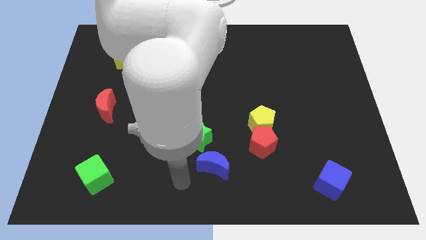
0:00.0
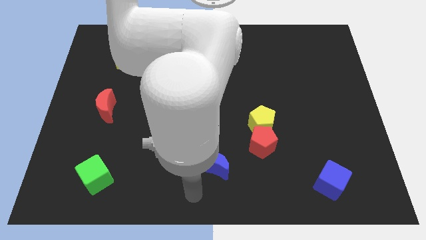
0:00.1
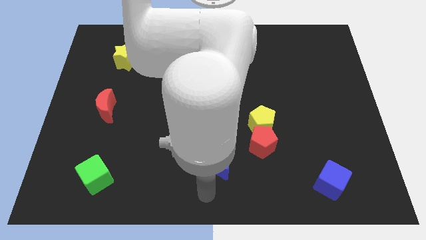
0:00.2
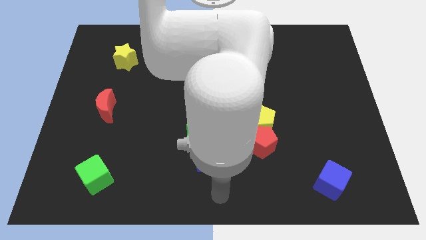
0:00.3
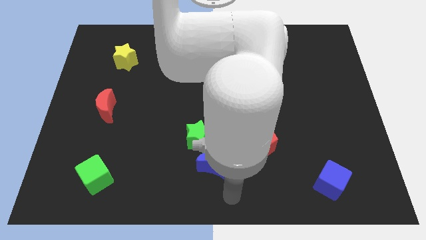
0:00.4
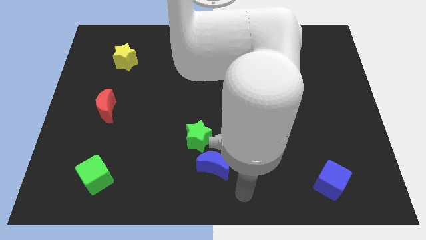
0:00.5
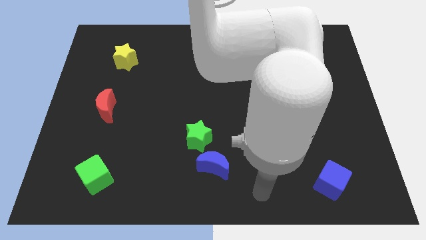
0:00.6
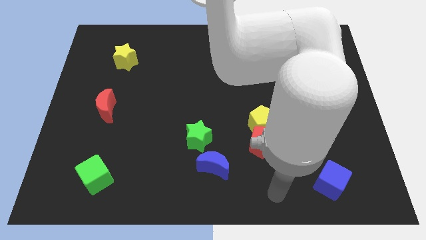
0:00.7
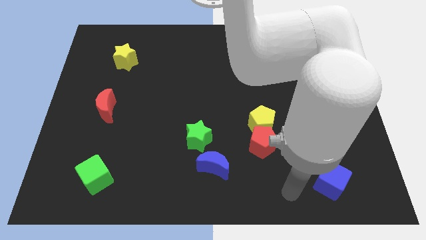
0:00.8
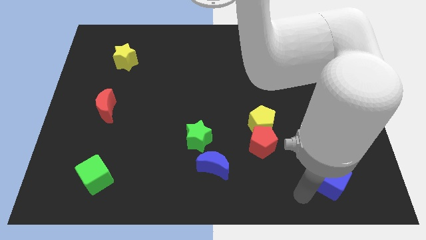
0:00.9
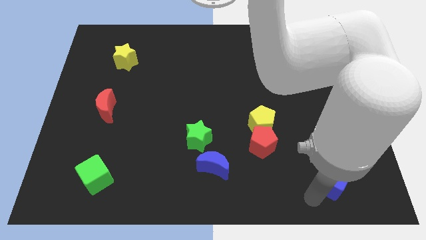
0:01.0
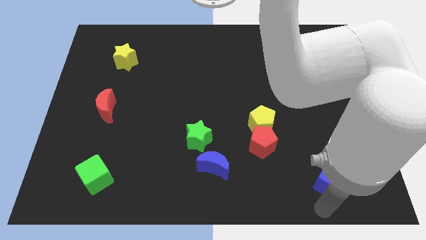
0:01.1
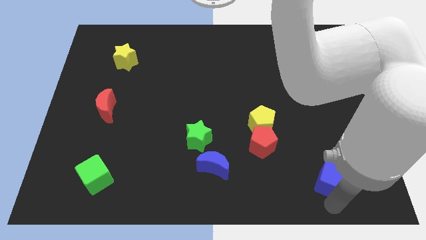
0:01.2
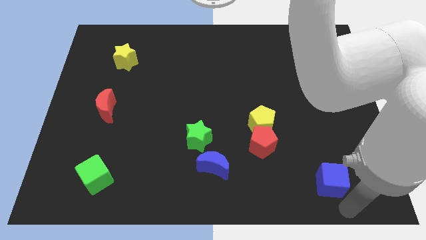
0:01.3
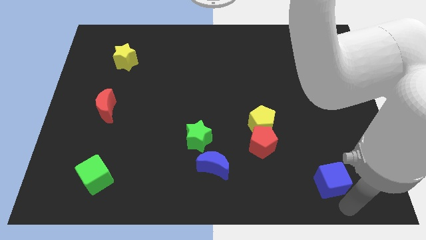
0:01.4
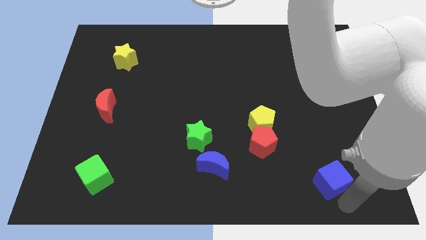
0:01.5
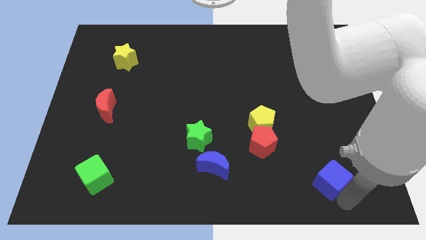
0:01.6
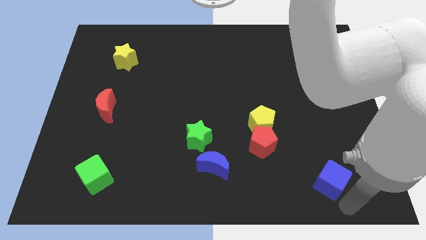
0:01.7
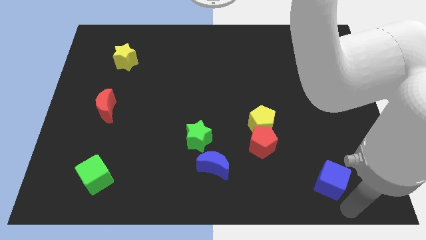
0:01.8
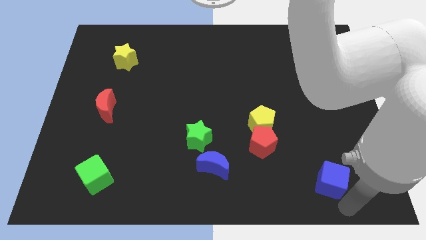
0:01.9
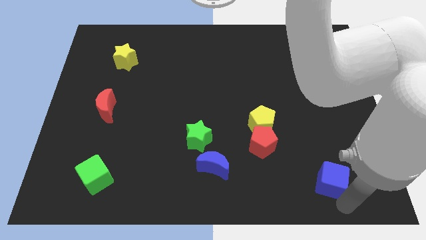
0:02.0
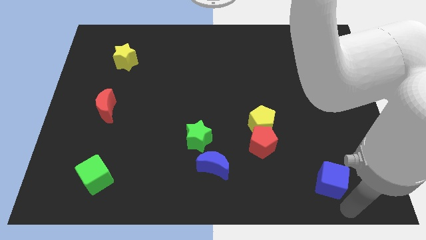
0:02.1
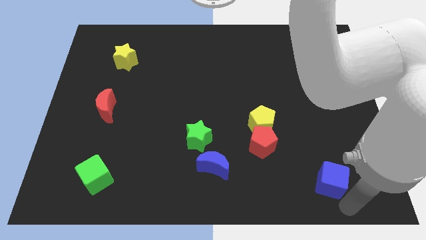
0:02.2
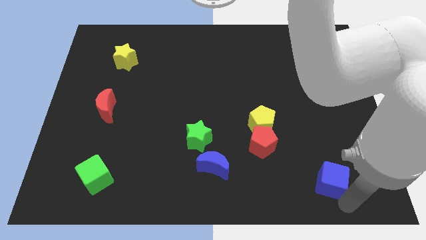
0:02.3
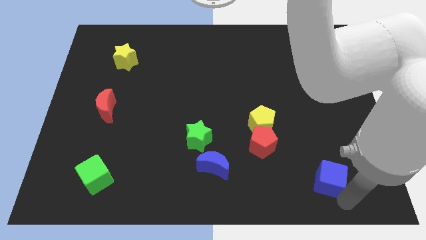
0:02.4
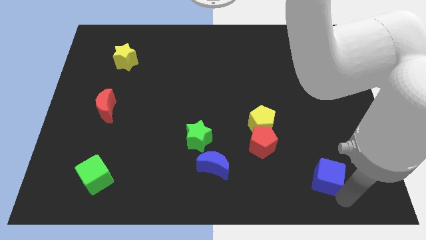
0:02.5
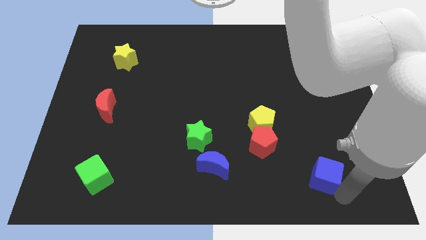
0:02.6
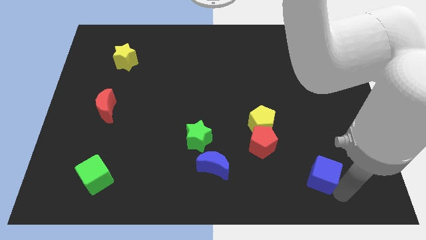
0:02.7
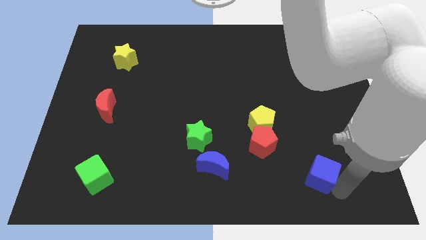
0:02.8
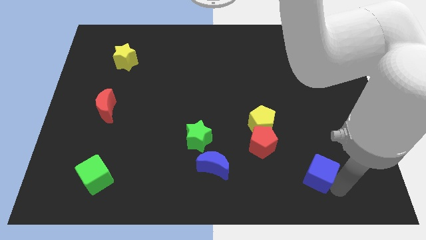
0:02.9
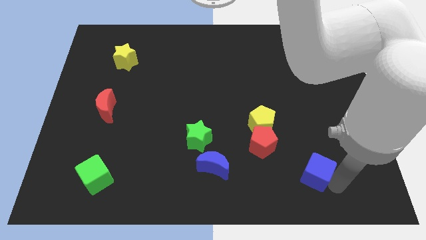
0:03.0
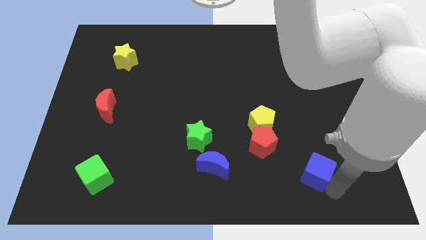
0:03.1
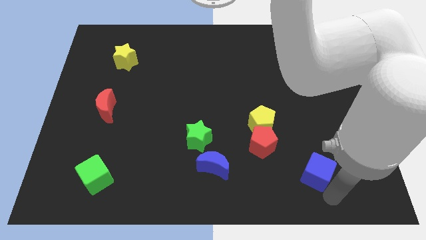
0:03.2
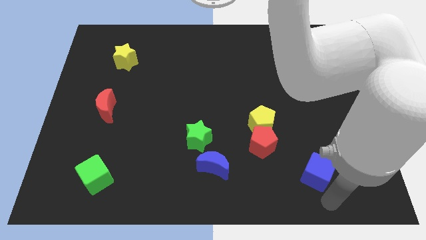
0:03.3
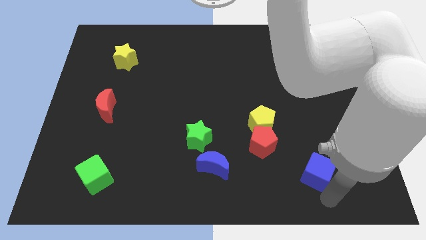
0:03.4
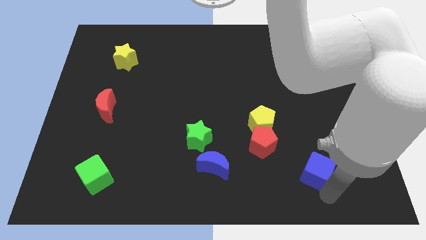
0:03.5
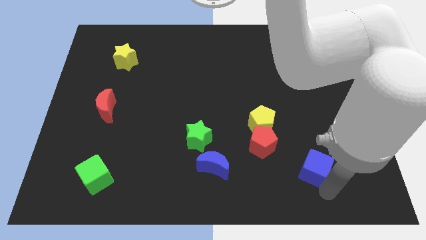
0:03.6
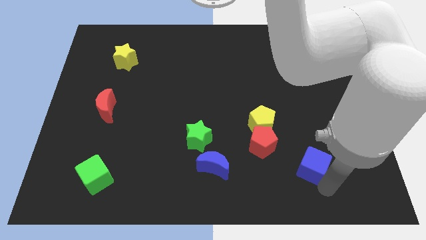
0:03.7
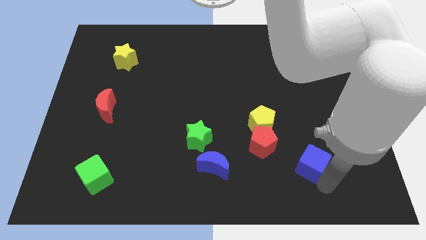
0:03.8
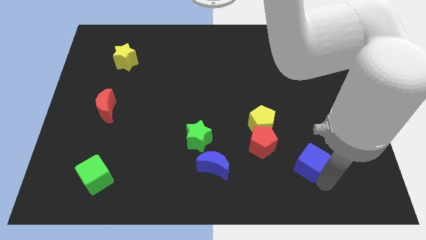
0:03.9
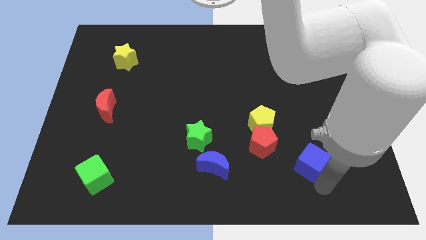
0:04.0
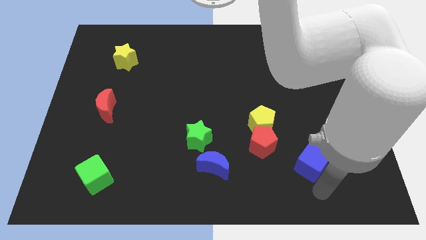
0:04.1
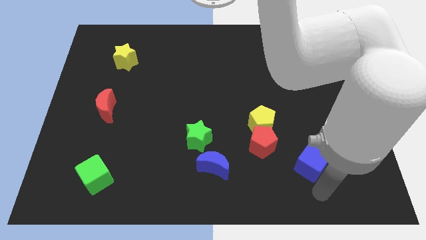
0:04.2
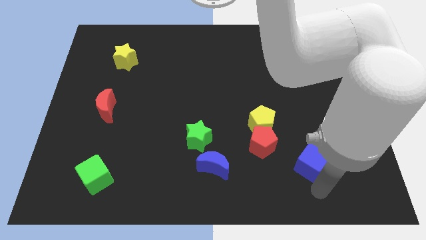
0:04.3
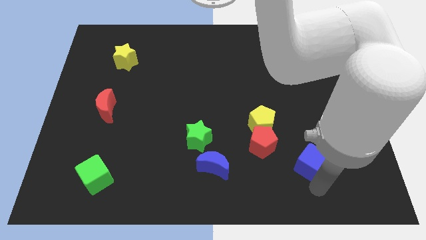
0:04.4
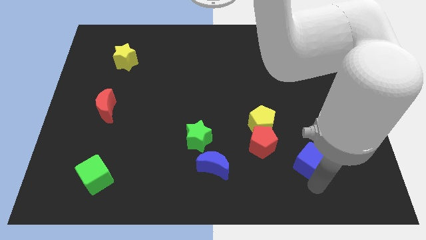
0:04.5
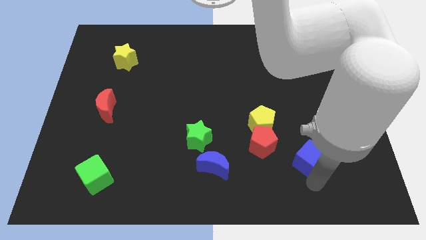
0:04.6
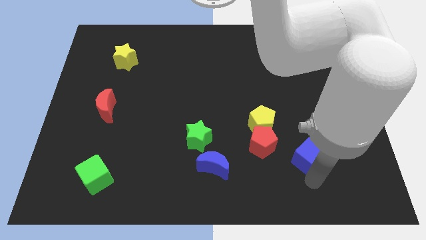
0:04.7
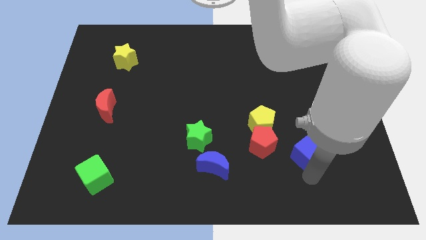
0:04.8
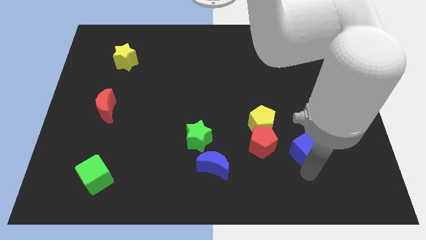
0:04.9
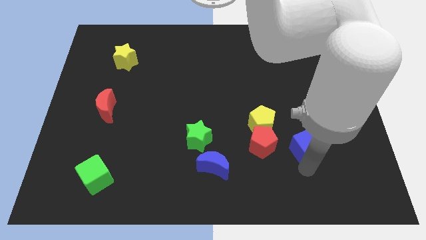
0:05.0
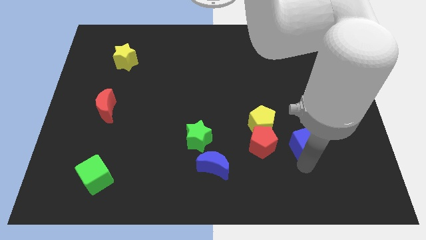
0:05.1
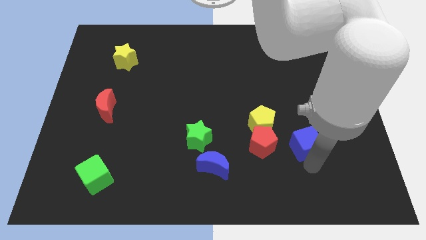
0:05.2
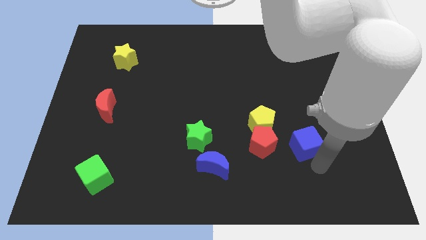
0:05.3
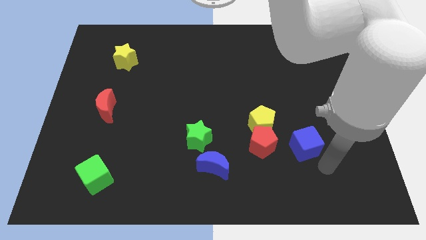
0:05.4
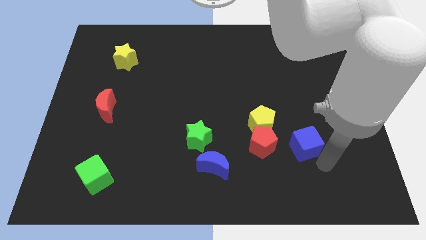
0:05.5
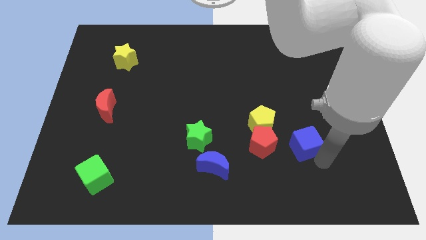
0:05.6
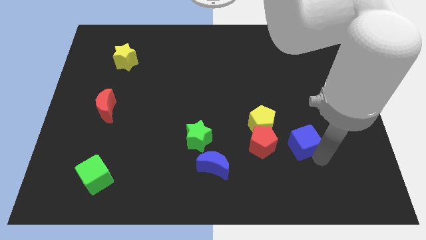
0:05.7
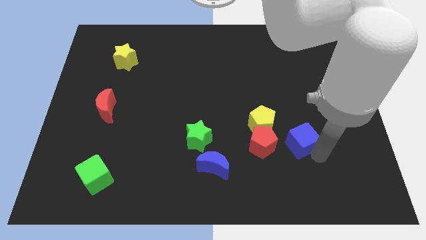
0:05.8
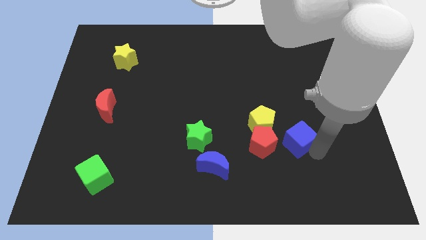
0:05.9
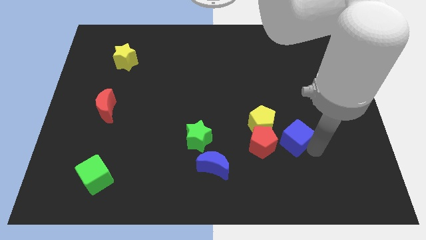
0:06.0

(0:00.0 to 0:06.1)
put the blue cube to the top right of the red pentagon

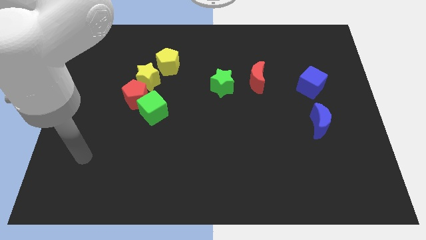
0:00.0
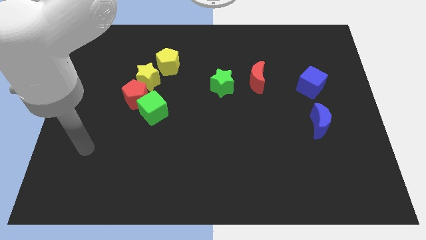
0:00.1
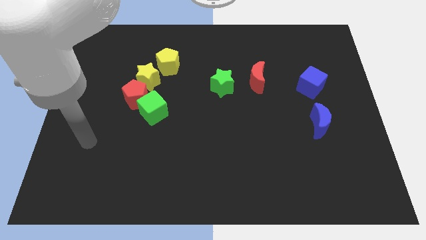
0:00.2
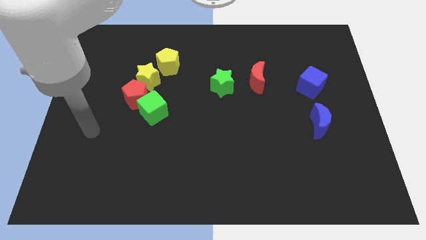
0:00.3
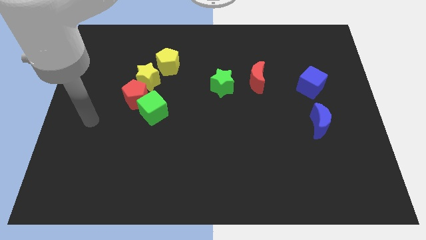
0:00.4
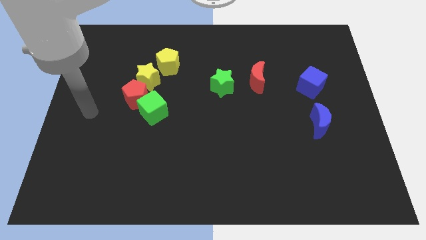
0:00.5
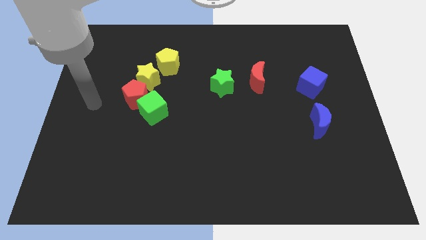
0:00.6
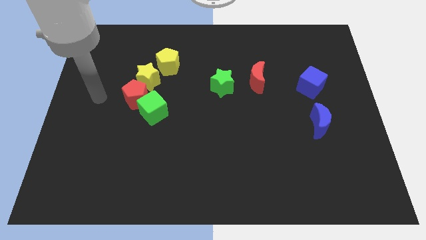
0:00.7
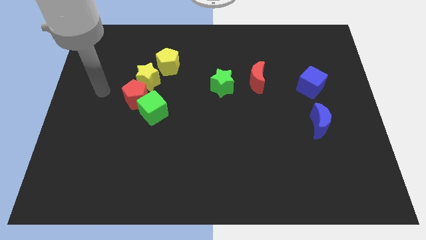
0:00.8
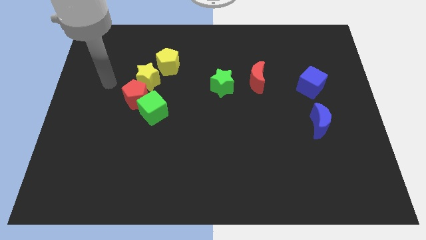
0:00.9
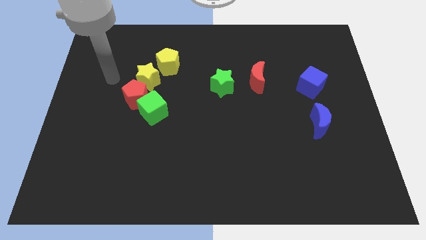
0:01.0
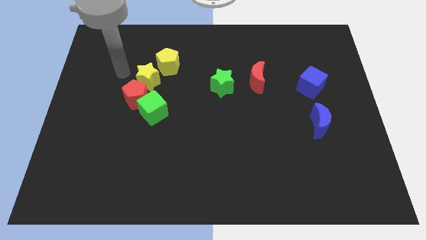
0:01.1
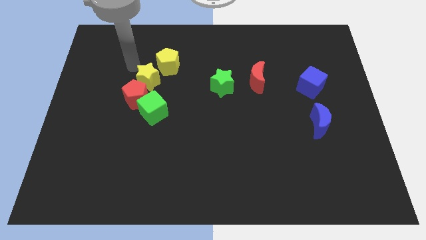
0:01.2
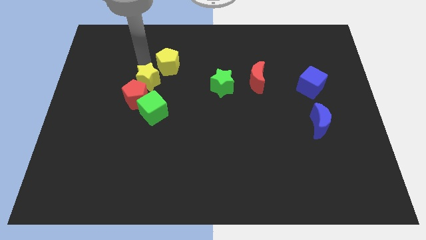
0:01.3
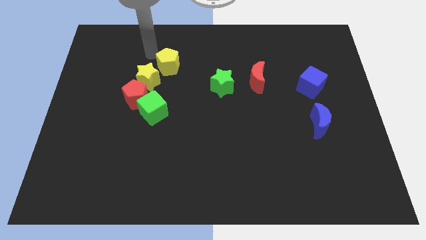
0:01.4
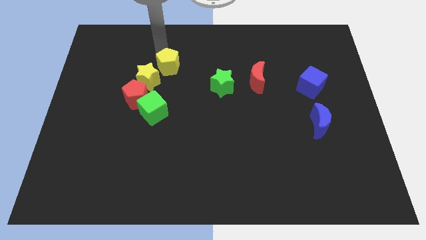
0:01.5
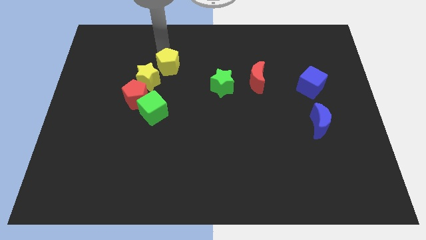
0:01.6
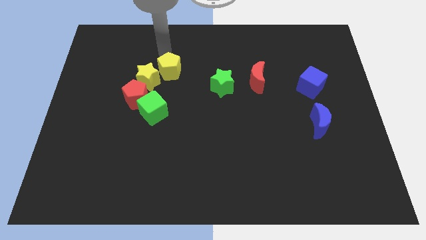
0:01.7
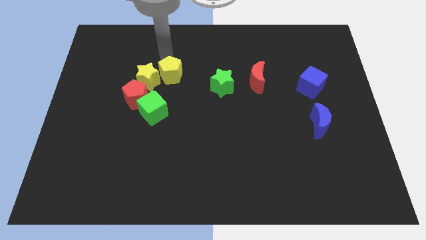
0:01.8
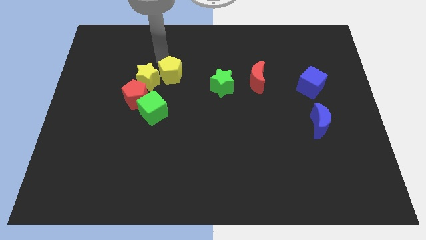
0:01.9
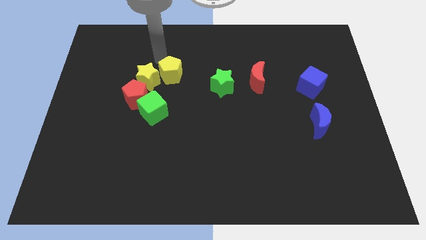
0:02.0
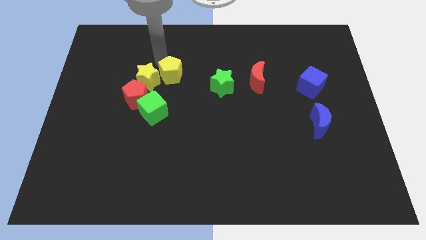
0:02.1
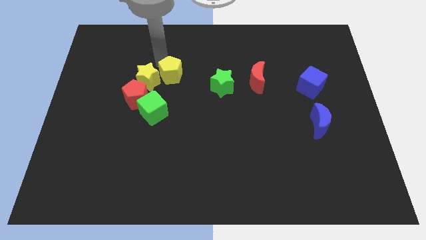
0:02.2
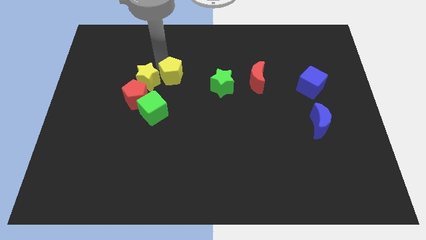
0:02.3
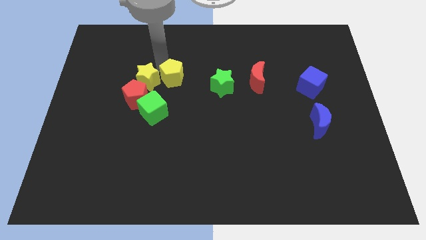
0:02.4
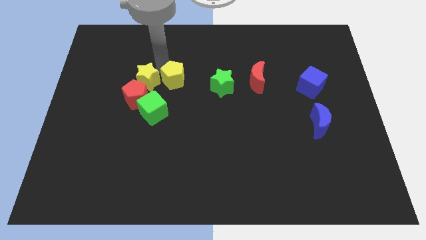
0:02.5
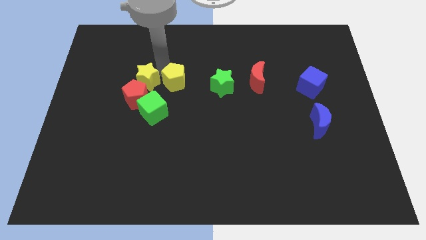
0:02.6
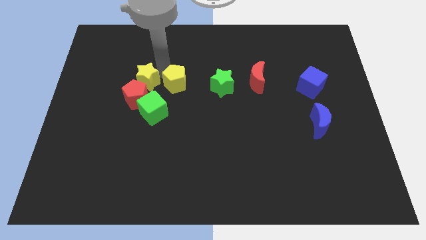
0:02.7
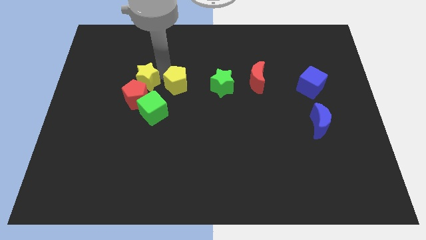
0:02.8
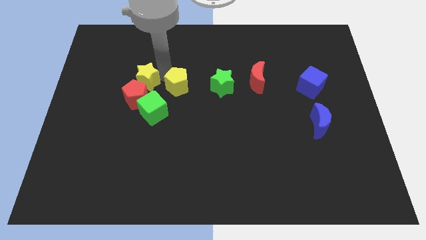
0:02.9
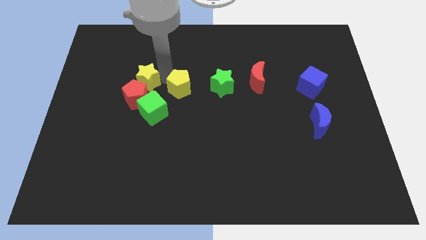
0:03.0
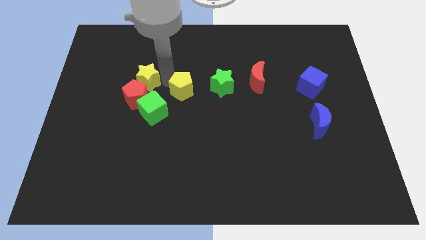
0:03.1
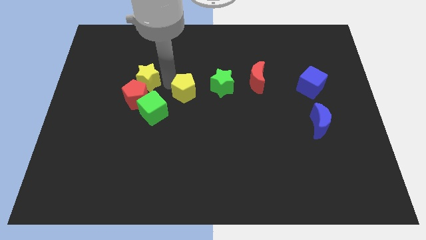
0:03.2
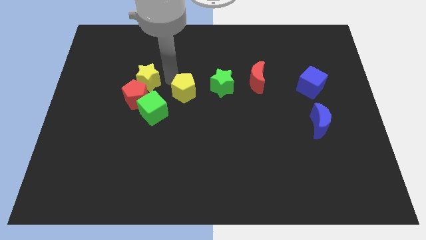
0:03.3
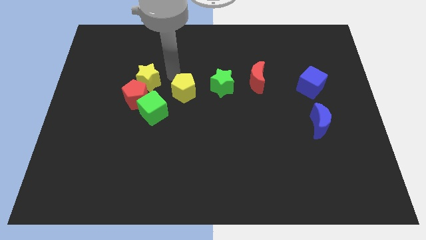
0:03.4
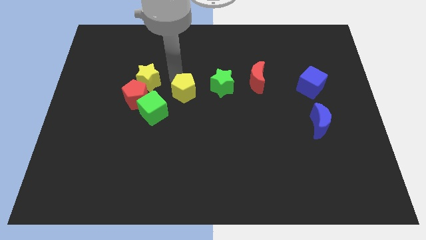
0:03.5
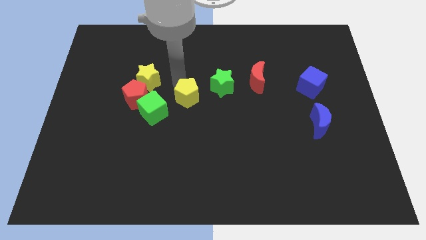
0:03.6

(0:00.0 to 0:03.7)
put the yellow pentagon to the right of the green cube
